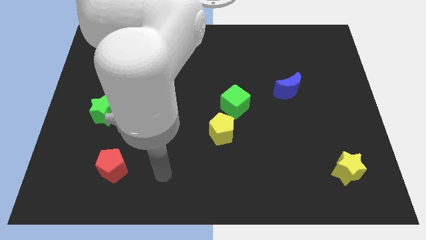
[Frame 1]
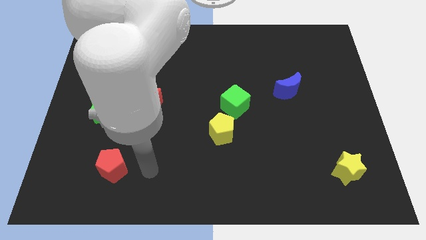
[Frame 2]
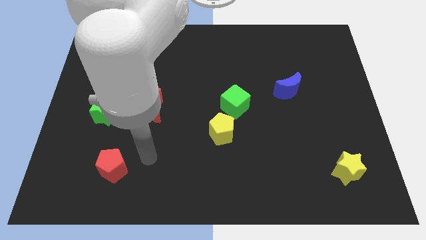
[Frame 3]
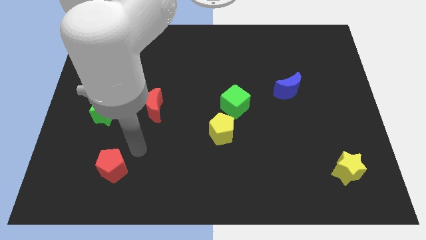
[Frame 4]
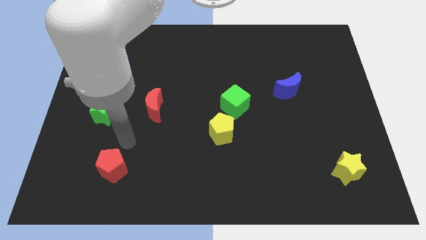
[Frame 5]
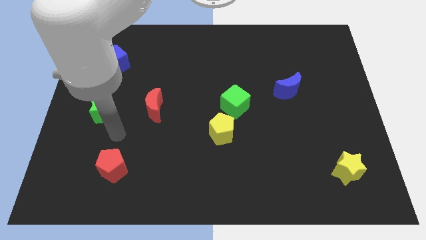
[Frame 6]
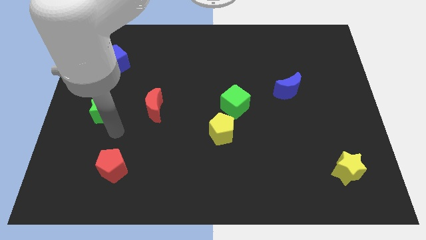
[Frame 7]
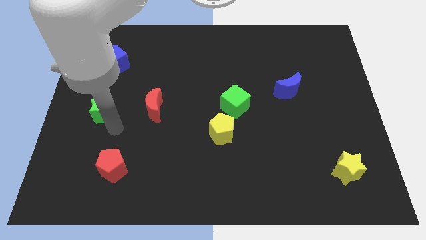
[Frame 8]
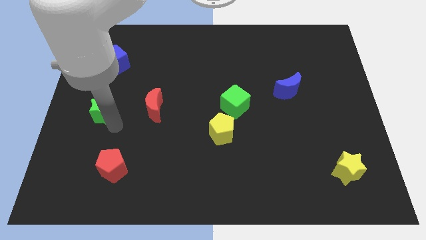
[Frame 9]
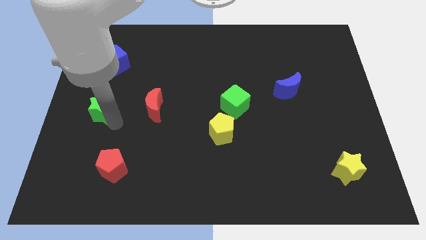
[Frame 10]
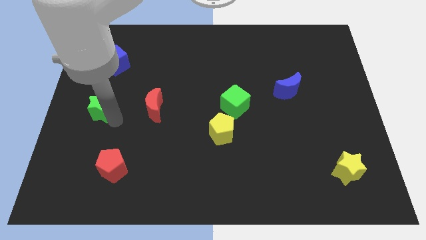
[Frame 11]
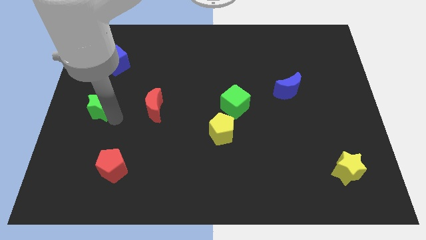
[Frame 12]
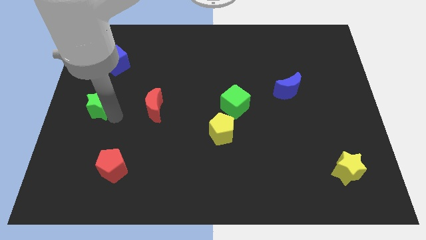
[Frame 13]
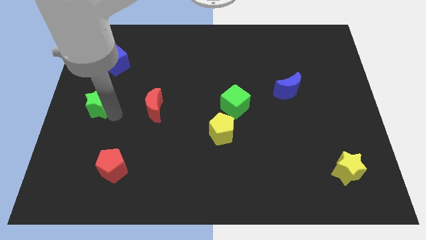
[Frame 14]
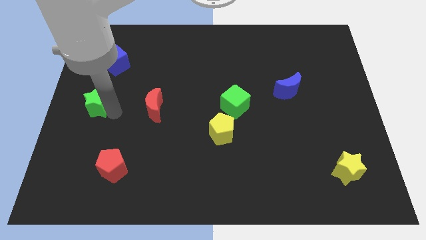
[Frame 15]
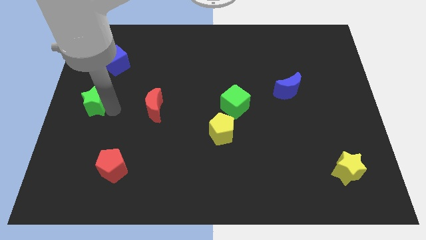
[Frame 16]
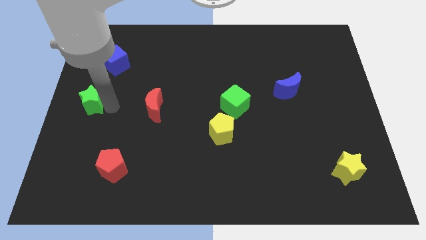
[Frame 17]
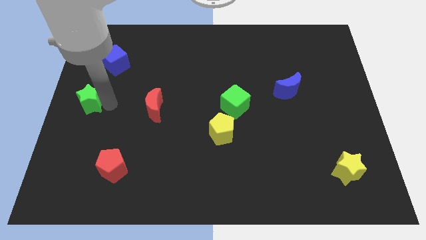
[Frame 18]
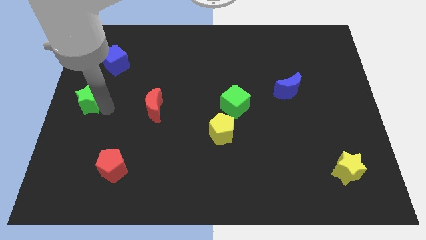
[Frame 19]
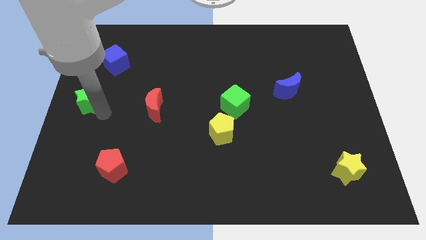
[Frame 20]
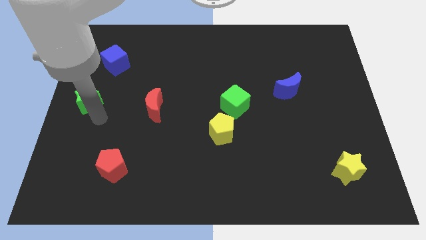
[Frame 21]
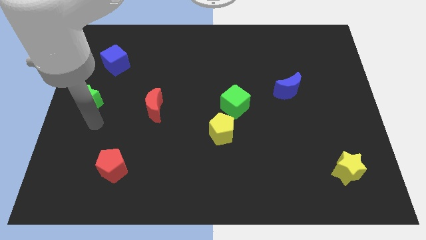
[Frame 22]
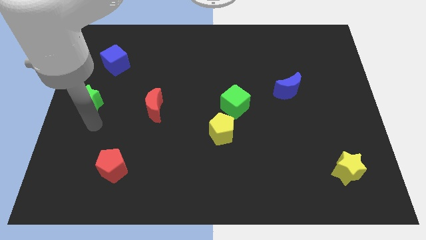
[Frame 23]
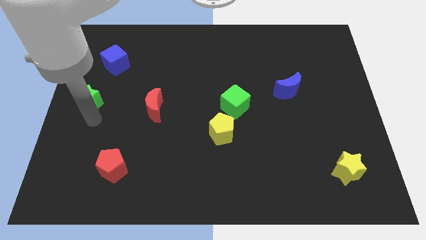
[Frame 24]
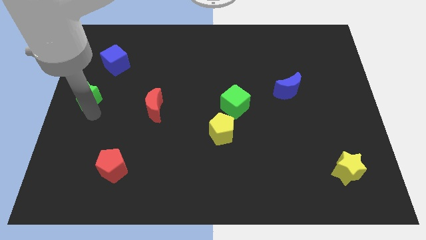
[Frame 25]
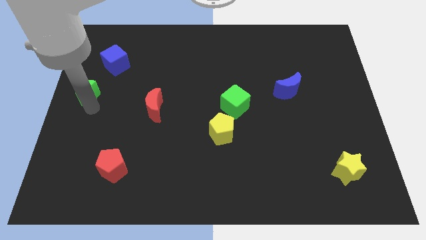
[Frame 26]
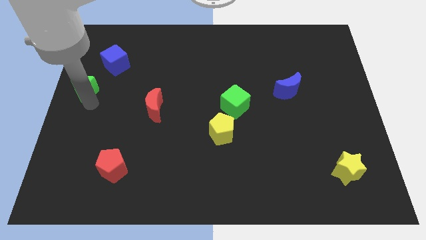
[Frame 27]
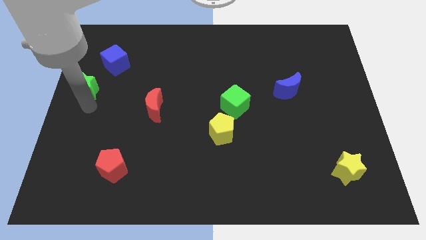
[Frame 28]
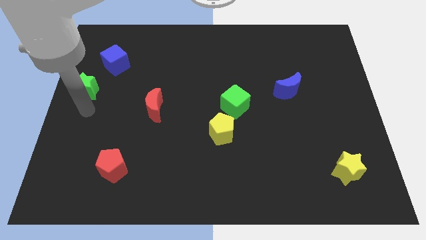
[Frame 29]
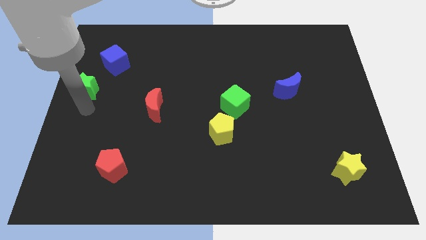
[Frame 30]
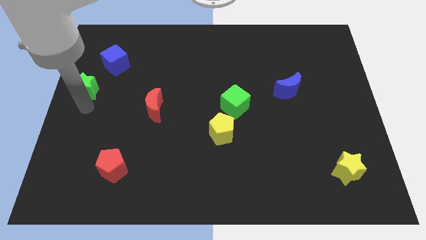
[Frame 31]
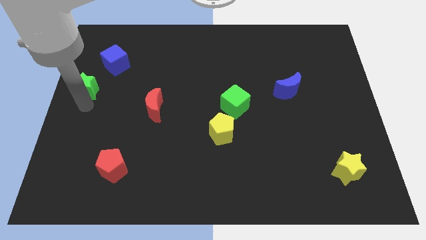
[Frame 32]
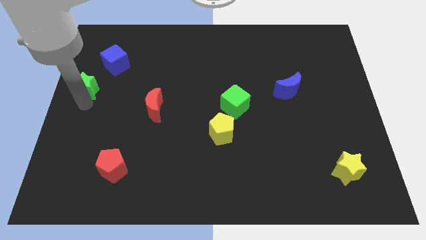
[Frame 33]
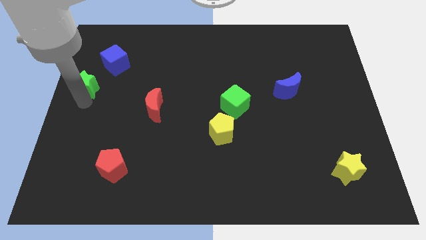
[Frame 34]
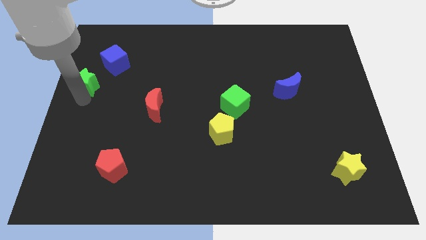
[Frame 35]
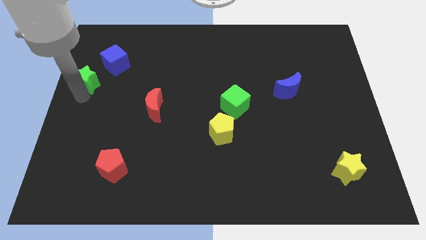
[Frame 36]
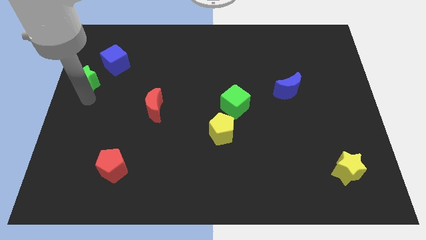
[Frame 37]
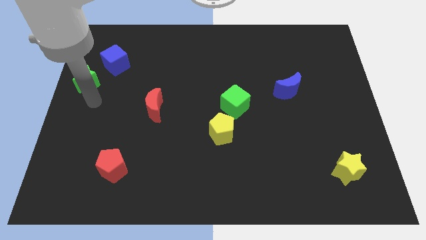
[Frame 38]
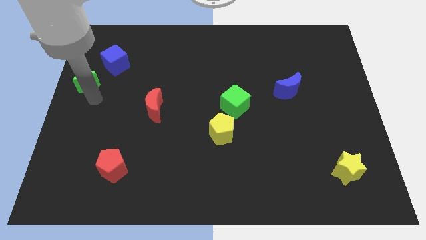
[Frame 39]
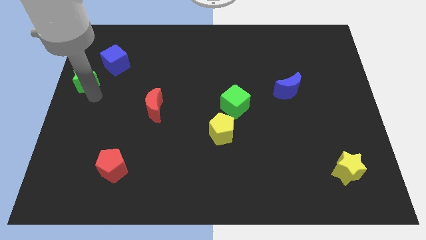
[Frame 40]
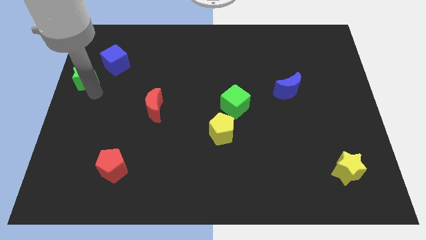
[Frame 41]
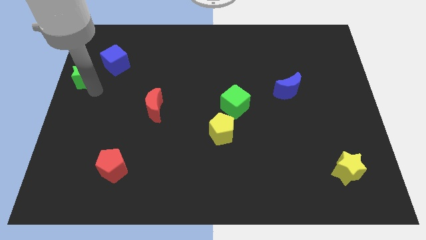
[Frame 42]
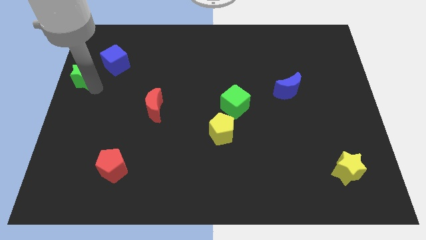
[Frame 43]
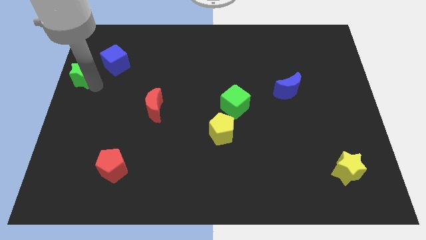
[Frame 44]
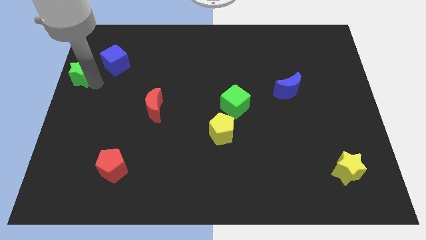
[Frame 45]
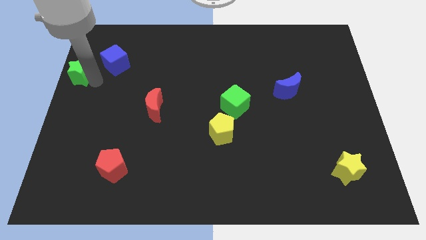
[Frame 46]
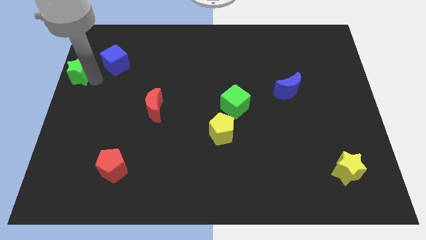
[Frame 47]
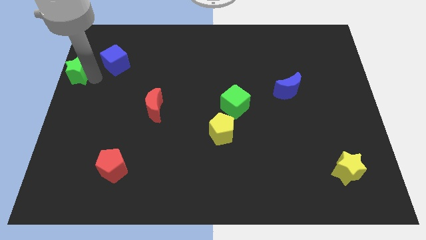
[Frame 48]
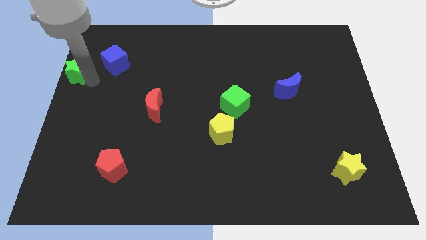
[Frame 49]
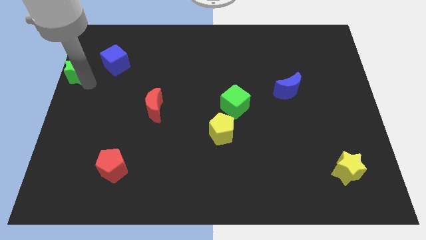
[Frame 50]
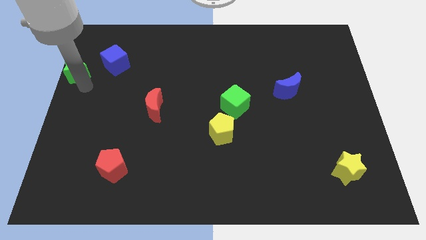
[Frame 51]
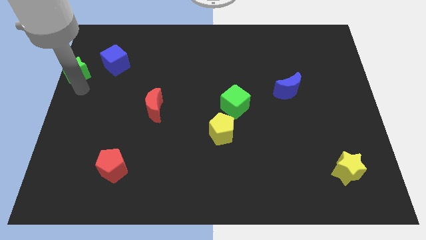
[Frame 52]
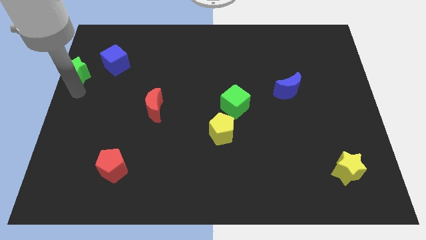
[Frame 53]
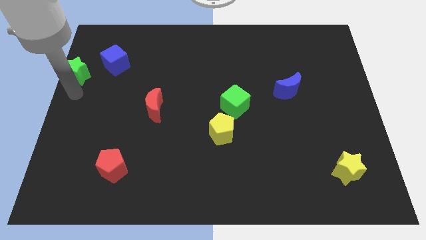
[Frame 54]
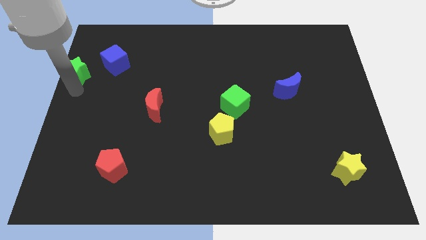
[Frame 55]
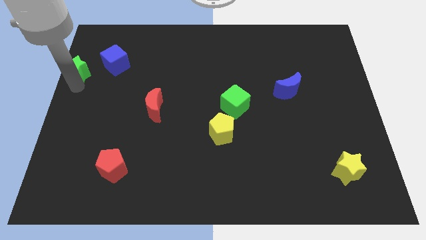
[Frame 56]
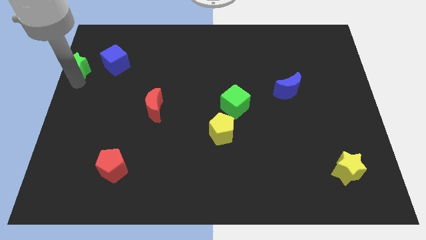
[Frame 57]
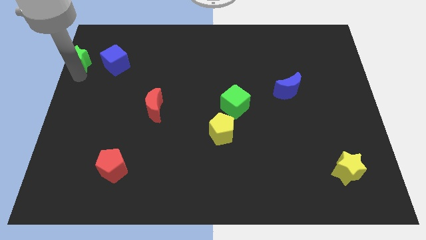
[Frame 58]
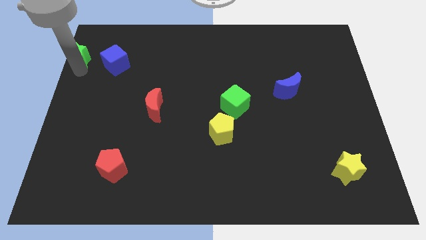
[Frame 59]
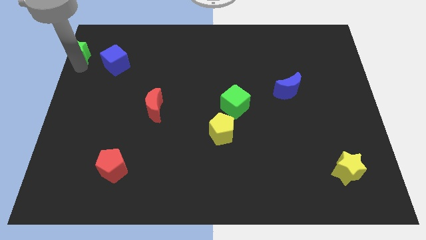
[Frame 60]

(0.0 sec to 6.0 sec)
put the green star to the upper left corner
